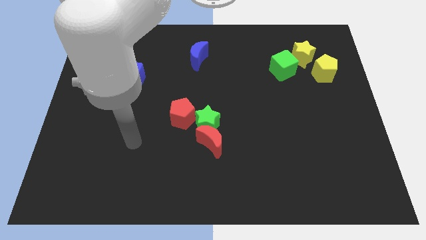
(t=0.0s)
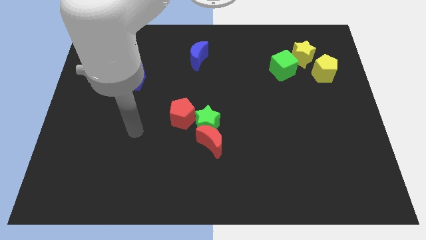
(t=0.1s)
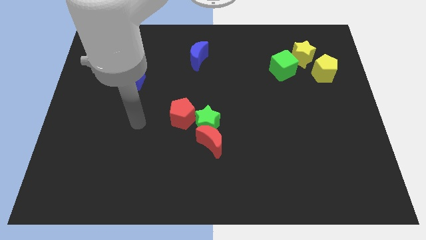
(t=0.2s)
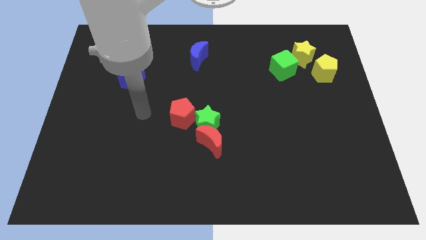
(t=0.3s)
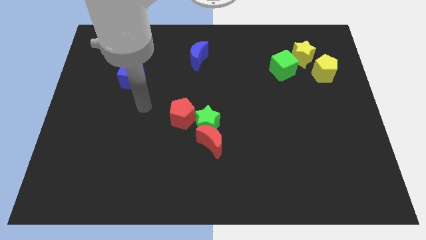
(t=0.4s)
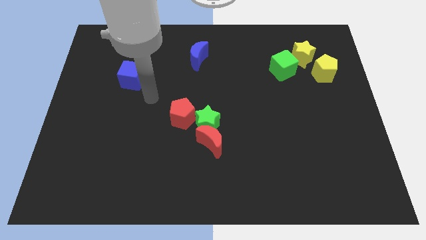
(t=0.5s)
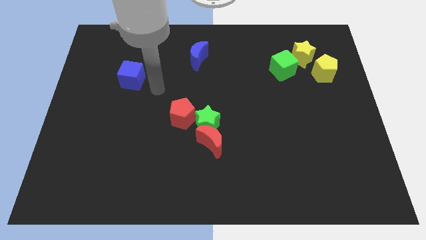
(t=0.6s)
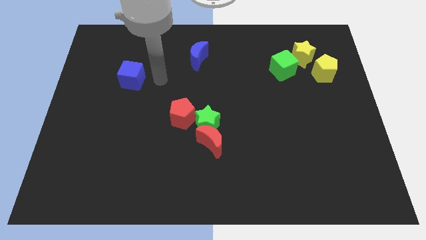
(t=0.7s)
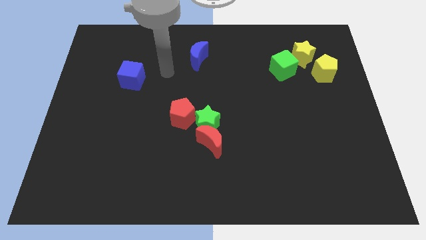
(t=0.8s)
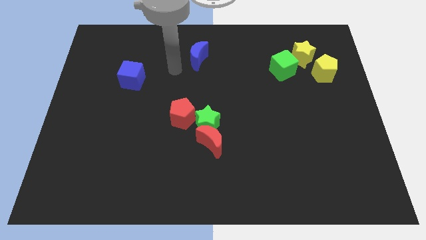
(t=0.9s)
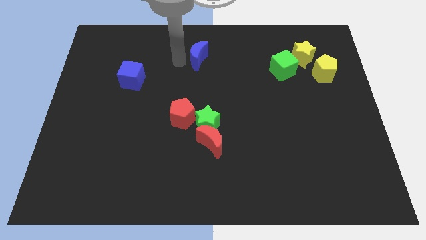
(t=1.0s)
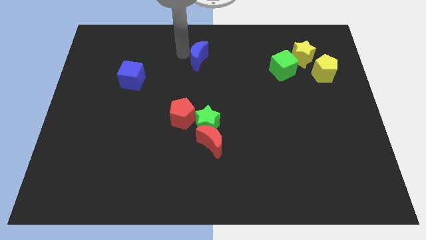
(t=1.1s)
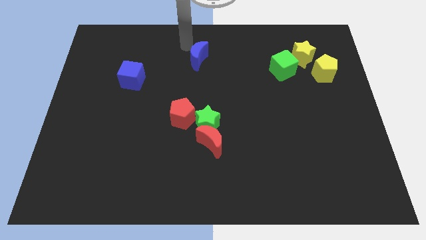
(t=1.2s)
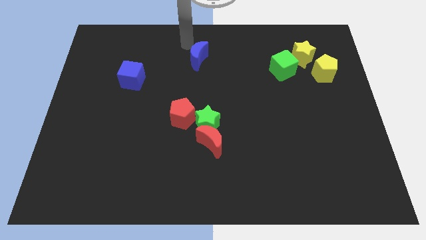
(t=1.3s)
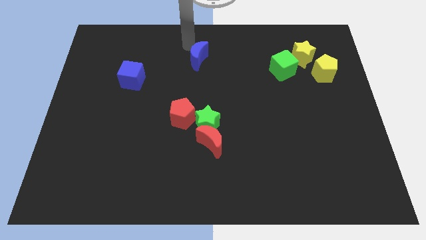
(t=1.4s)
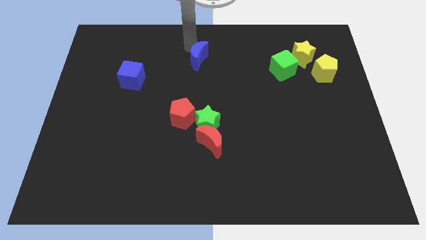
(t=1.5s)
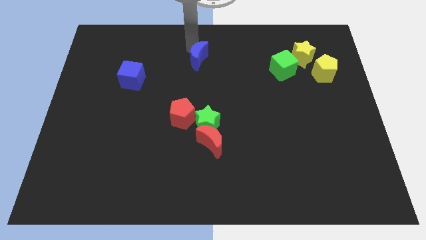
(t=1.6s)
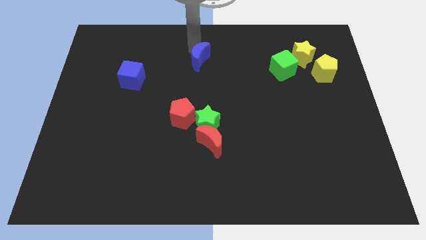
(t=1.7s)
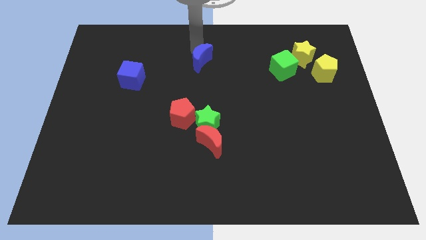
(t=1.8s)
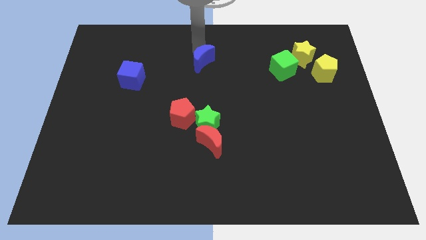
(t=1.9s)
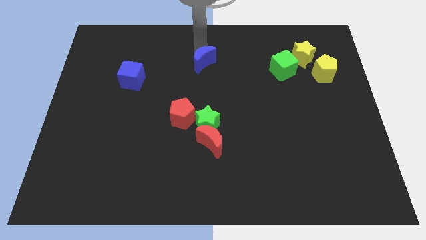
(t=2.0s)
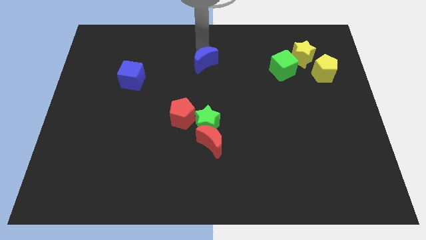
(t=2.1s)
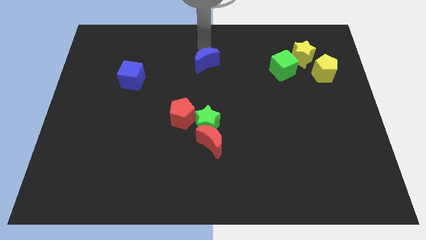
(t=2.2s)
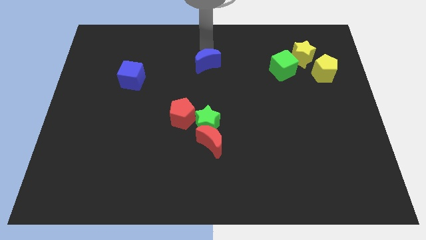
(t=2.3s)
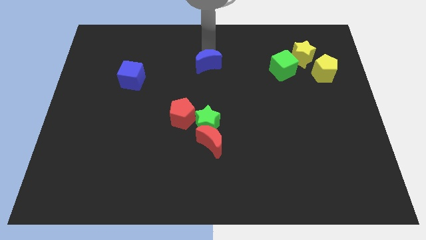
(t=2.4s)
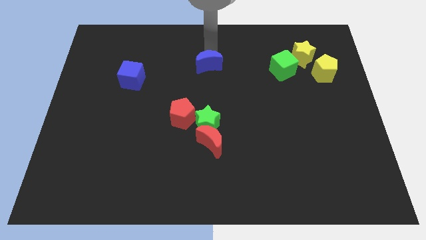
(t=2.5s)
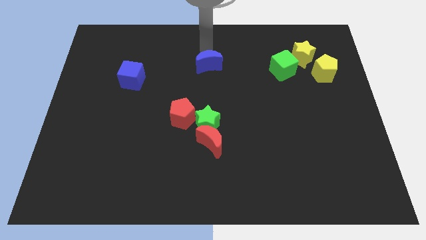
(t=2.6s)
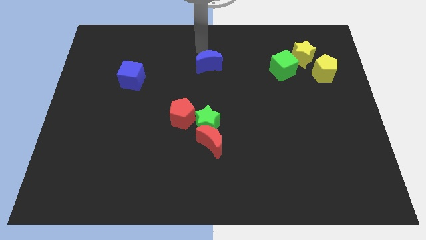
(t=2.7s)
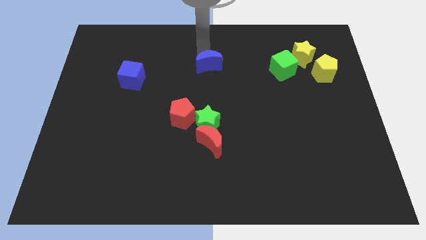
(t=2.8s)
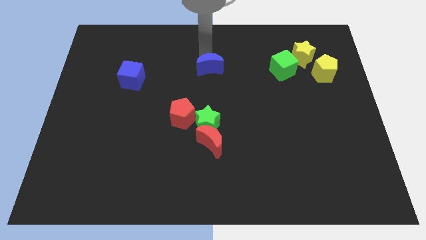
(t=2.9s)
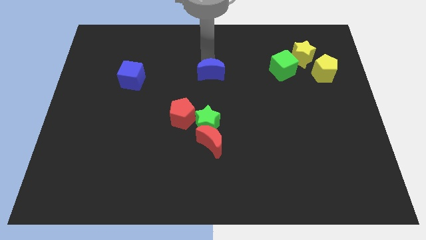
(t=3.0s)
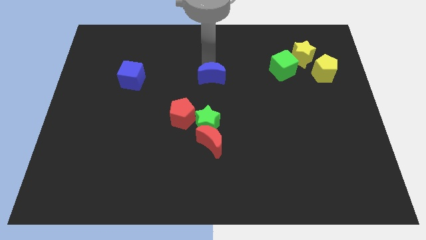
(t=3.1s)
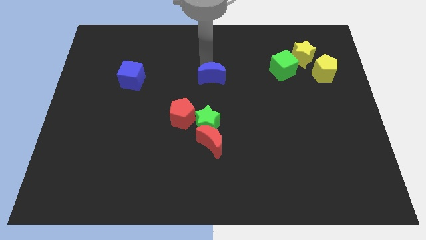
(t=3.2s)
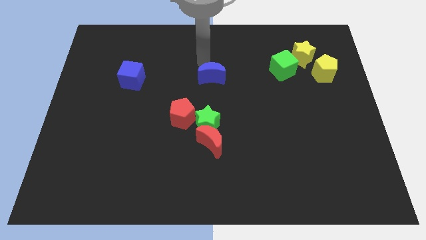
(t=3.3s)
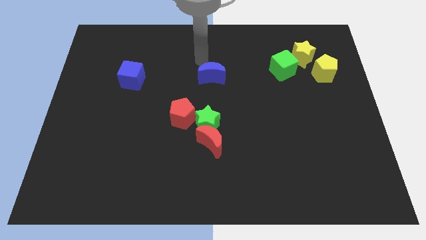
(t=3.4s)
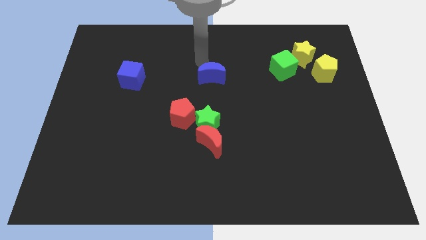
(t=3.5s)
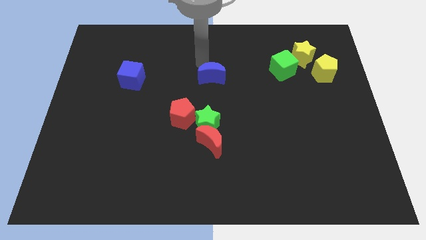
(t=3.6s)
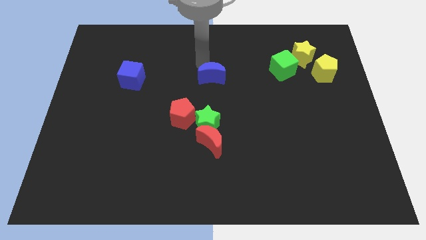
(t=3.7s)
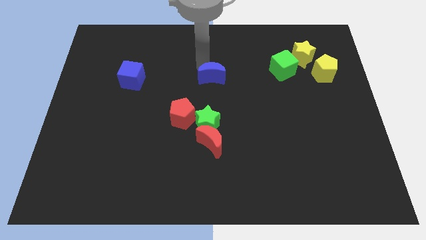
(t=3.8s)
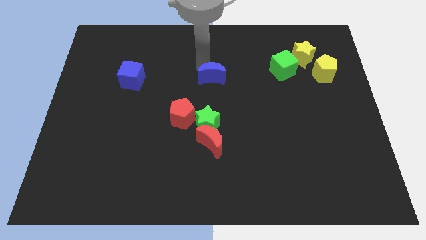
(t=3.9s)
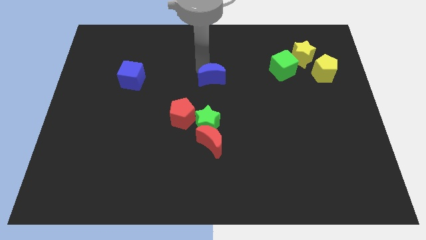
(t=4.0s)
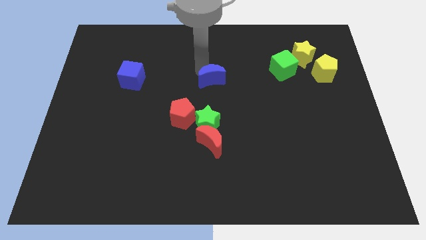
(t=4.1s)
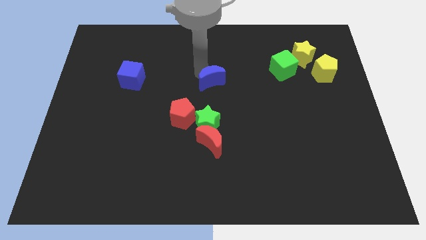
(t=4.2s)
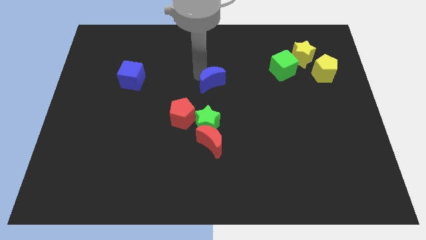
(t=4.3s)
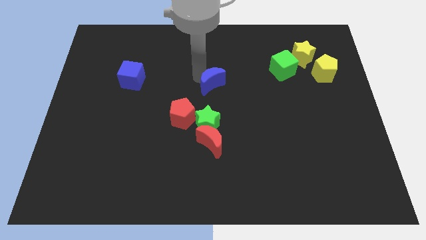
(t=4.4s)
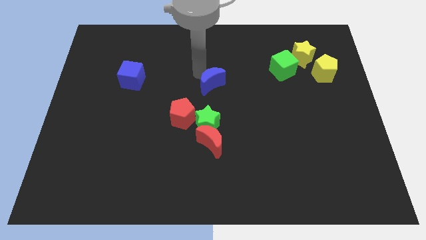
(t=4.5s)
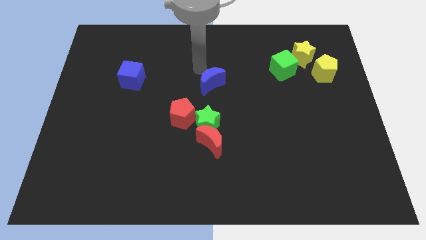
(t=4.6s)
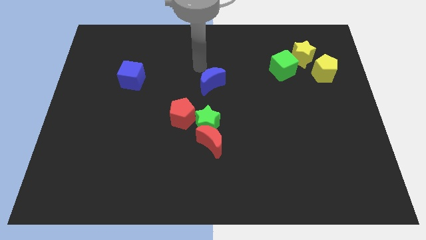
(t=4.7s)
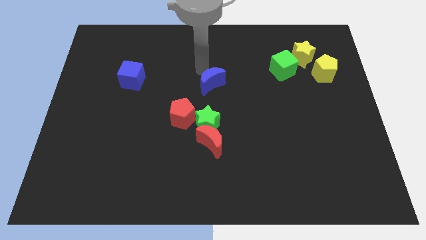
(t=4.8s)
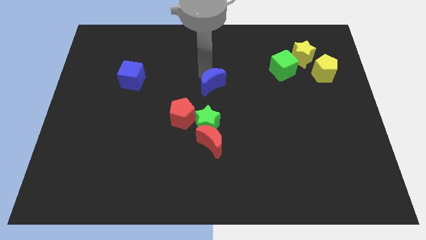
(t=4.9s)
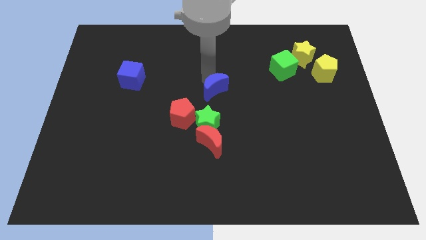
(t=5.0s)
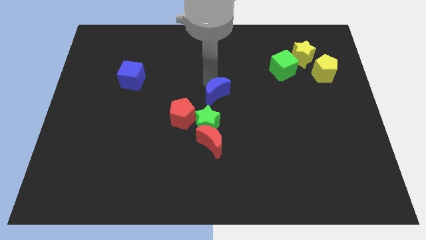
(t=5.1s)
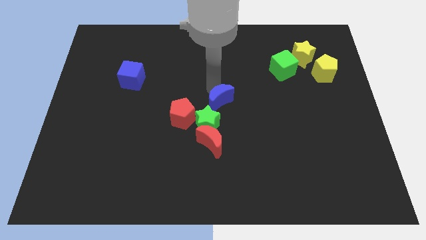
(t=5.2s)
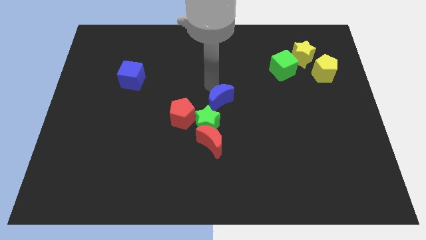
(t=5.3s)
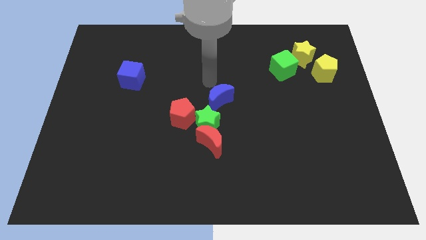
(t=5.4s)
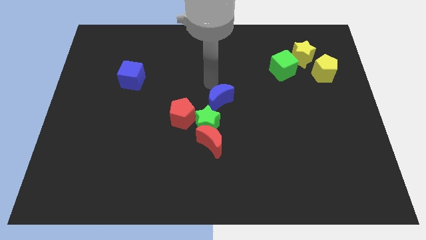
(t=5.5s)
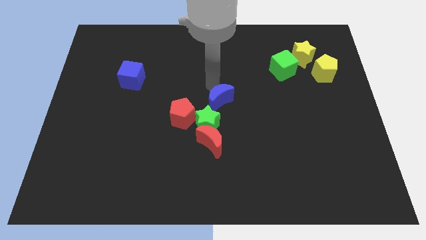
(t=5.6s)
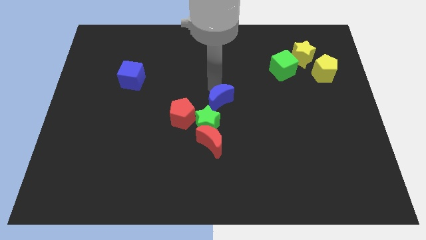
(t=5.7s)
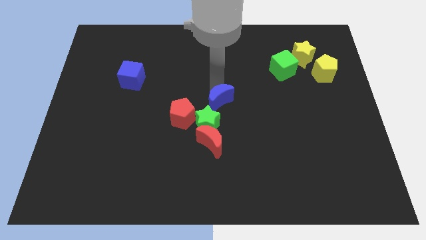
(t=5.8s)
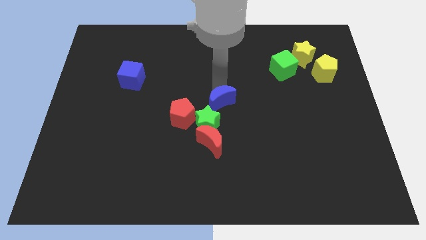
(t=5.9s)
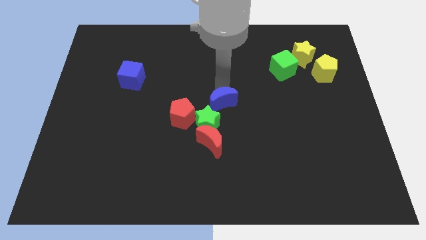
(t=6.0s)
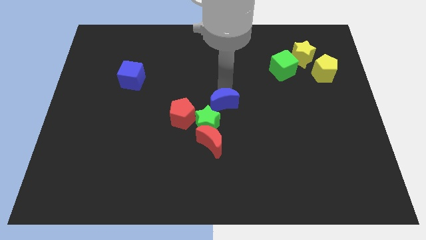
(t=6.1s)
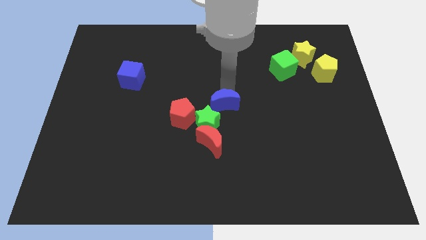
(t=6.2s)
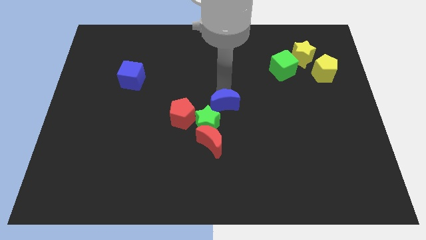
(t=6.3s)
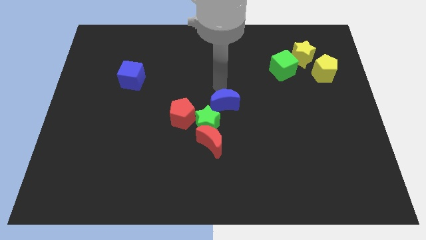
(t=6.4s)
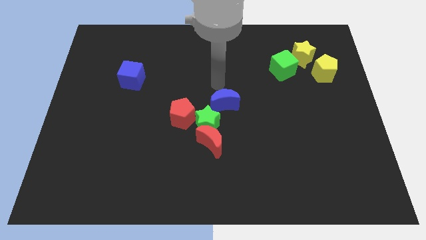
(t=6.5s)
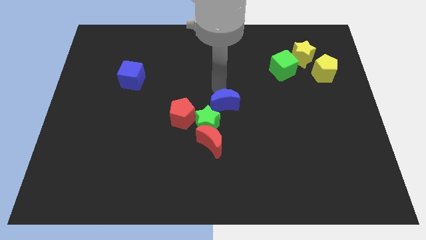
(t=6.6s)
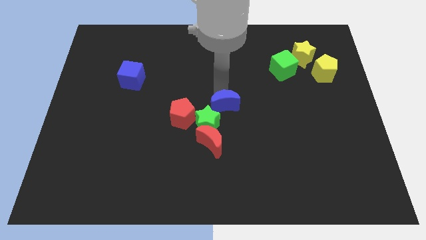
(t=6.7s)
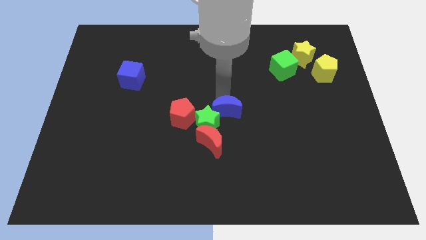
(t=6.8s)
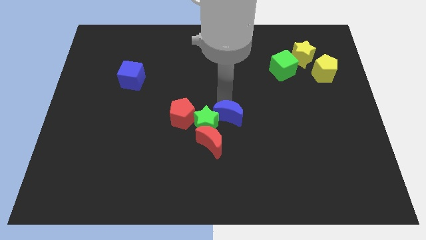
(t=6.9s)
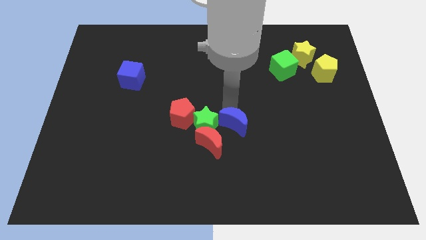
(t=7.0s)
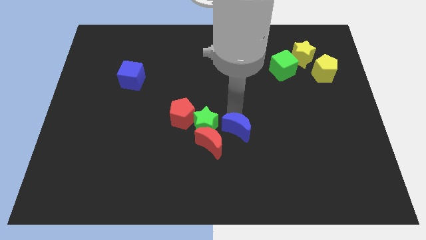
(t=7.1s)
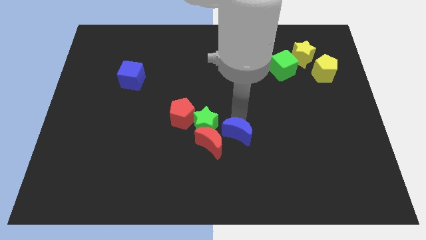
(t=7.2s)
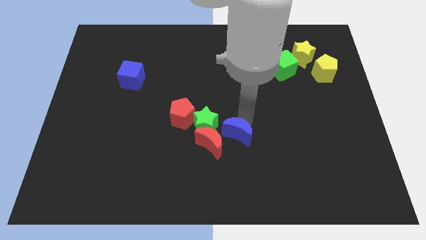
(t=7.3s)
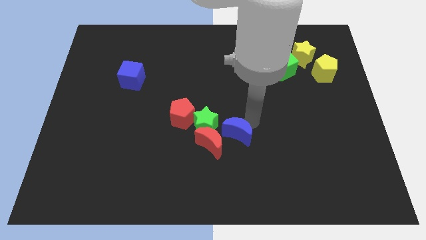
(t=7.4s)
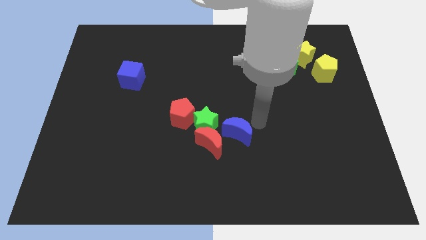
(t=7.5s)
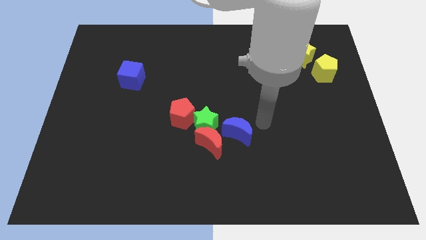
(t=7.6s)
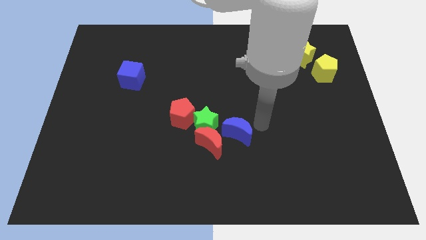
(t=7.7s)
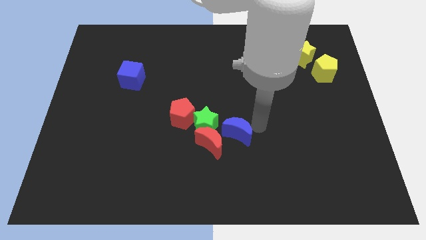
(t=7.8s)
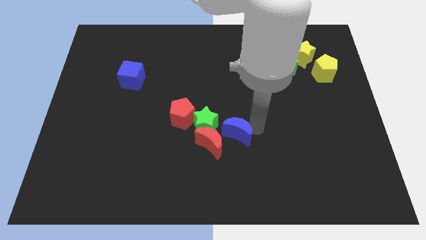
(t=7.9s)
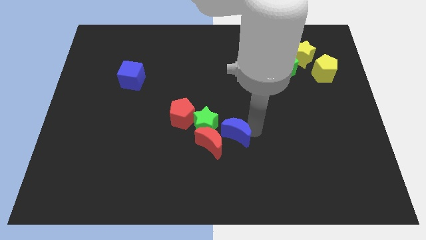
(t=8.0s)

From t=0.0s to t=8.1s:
put the blue moon next to the red moon
